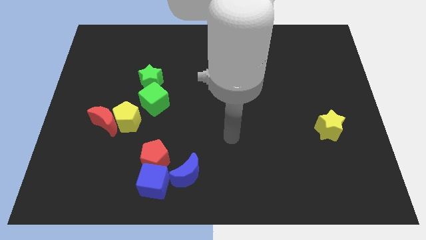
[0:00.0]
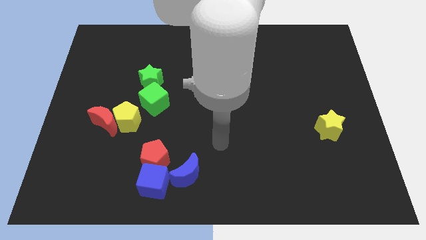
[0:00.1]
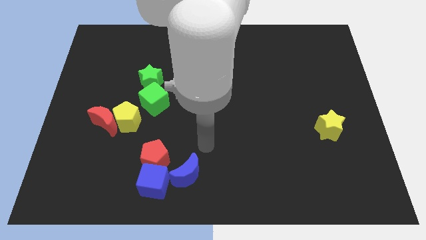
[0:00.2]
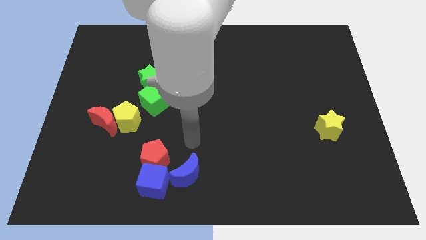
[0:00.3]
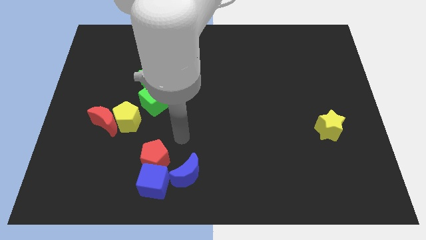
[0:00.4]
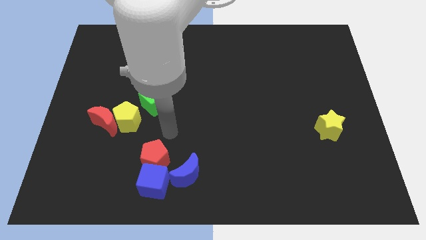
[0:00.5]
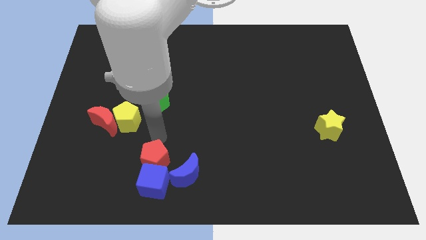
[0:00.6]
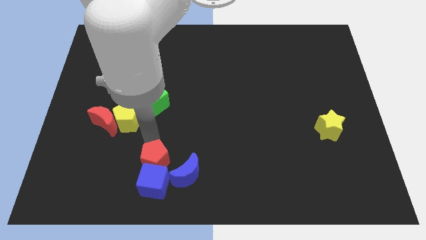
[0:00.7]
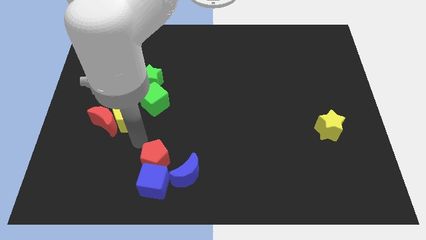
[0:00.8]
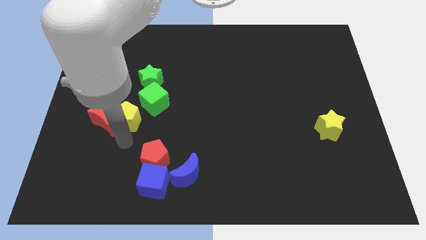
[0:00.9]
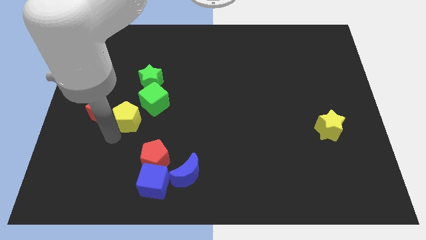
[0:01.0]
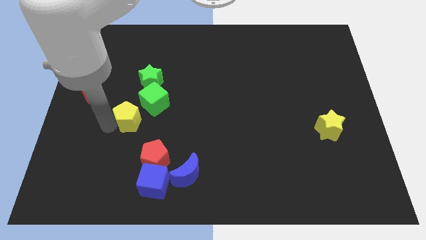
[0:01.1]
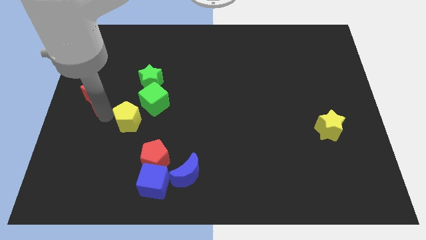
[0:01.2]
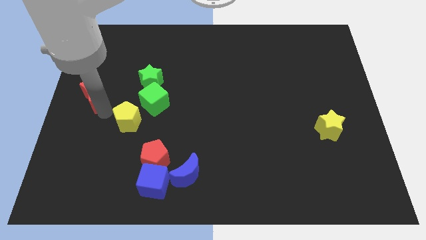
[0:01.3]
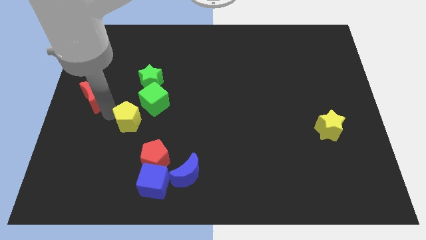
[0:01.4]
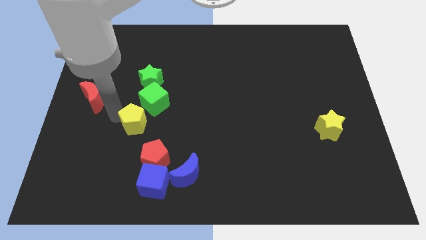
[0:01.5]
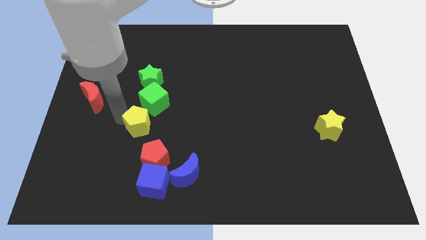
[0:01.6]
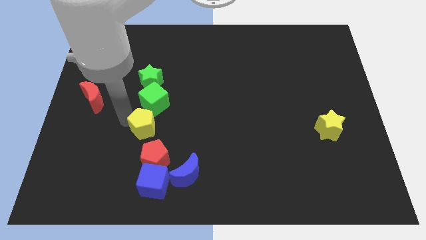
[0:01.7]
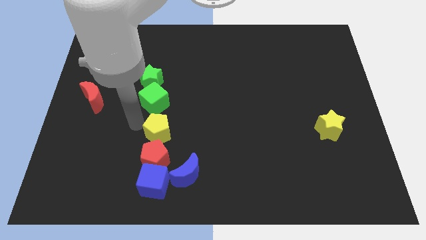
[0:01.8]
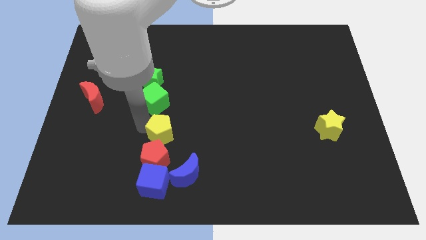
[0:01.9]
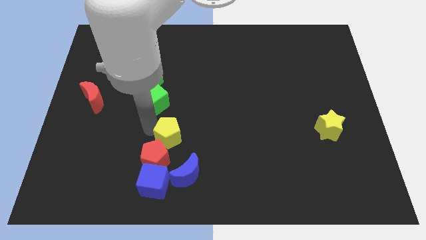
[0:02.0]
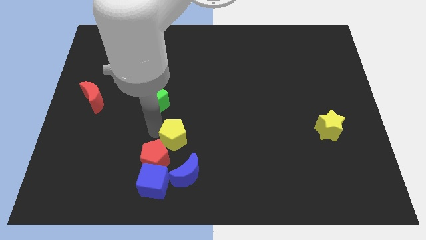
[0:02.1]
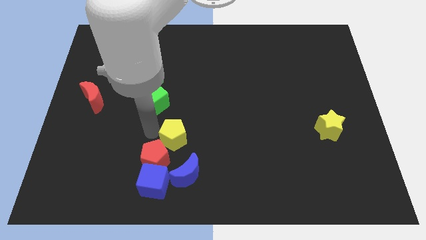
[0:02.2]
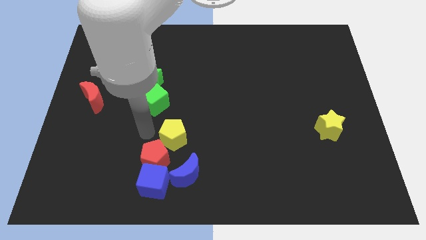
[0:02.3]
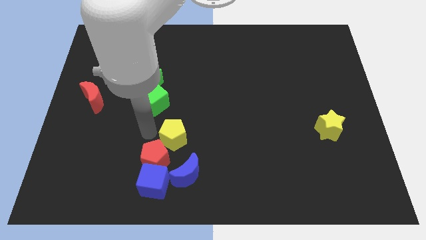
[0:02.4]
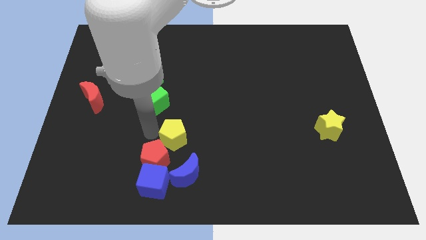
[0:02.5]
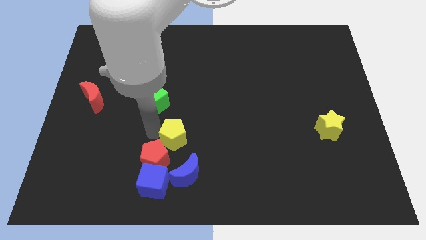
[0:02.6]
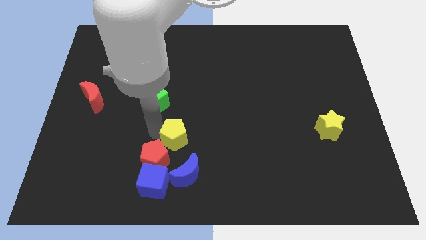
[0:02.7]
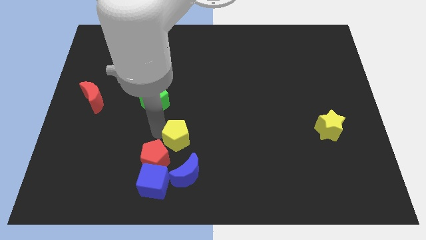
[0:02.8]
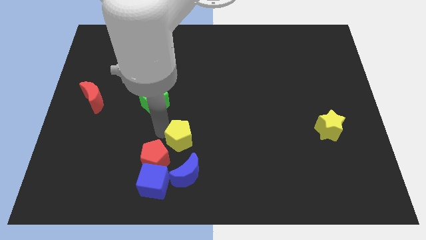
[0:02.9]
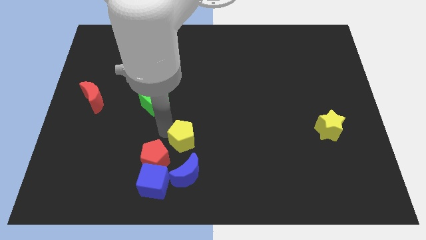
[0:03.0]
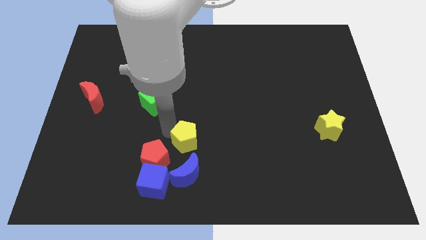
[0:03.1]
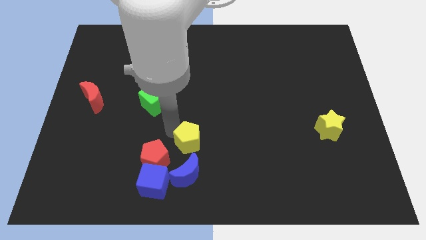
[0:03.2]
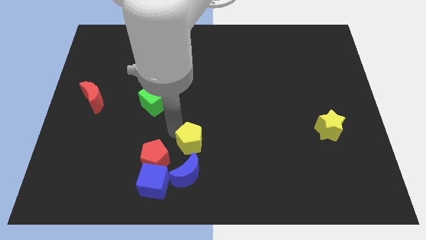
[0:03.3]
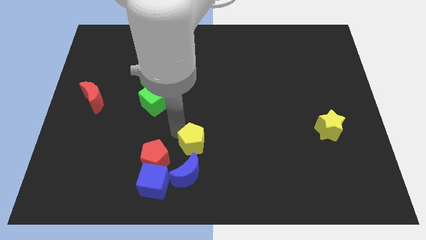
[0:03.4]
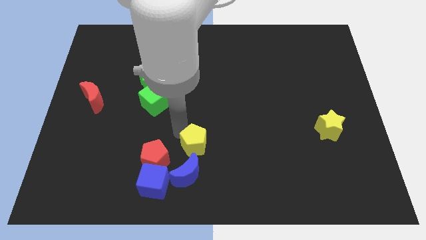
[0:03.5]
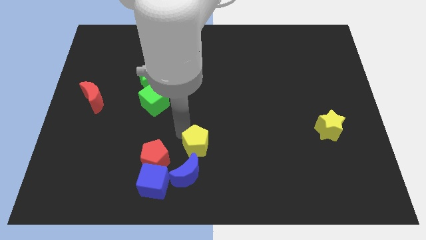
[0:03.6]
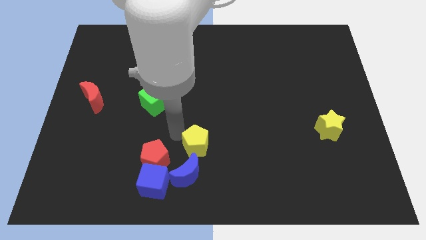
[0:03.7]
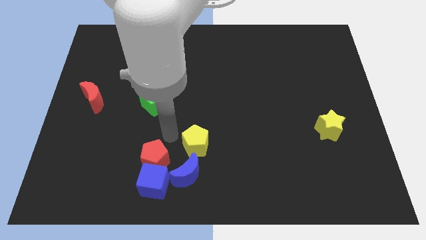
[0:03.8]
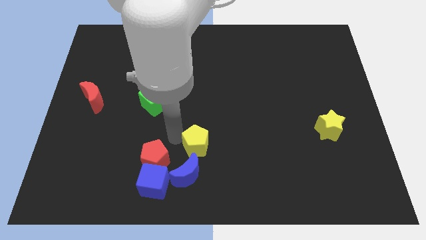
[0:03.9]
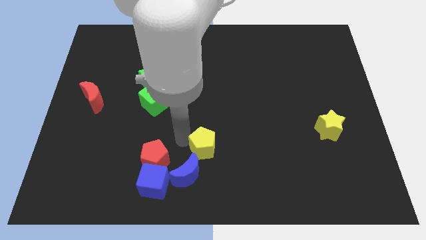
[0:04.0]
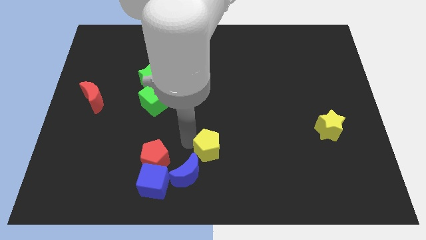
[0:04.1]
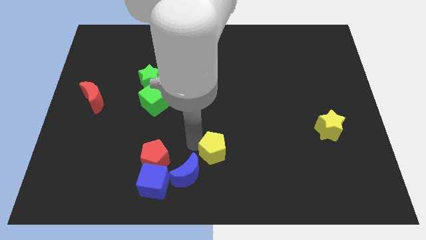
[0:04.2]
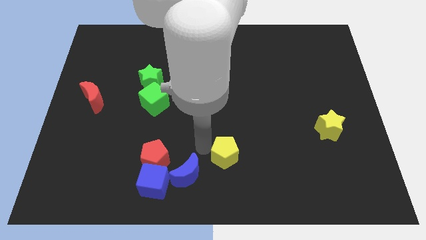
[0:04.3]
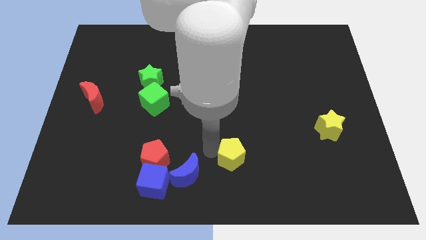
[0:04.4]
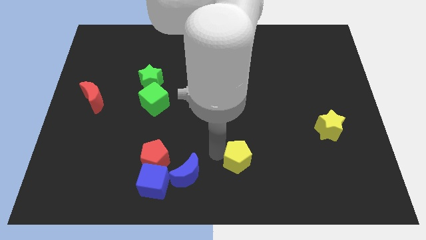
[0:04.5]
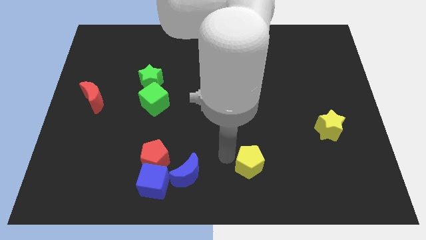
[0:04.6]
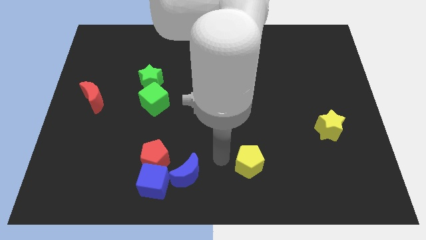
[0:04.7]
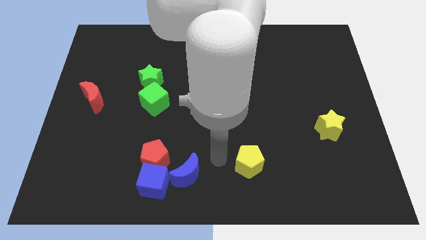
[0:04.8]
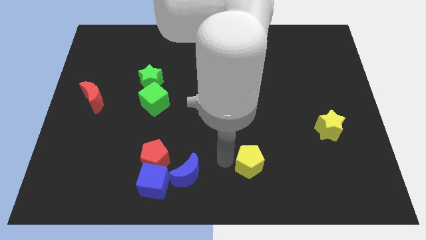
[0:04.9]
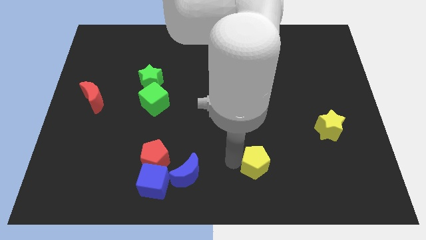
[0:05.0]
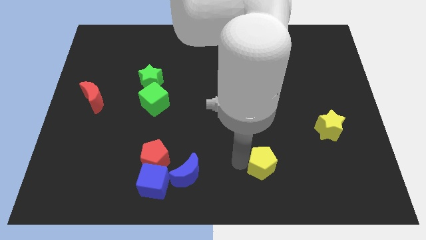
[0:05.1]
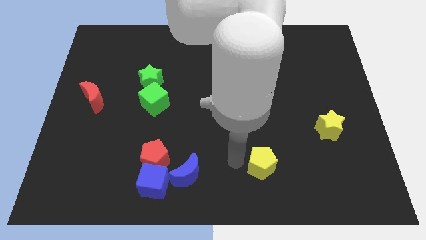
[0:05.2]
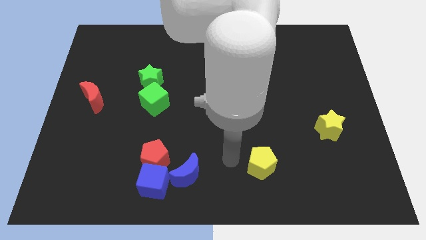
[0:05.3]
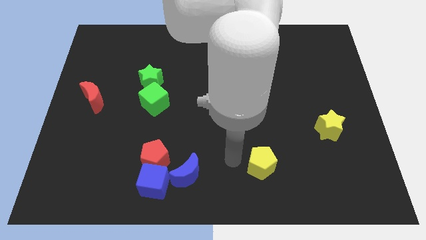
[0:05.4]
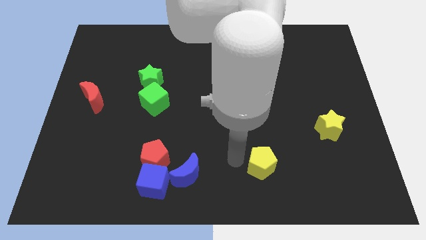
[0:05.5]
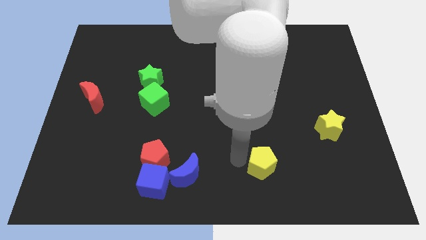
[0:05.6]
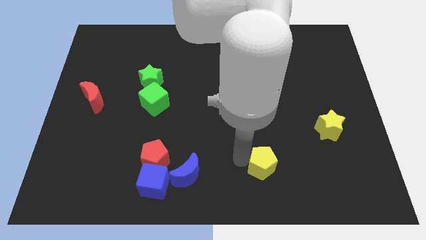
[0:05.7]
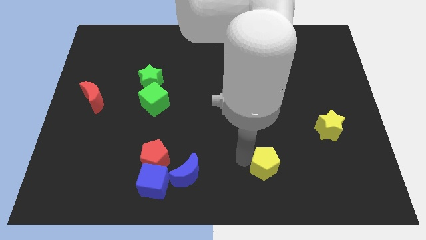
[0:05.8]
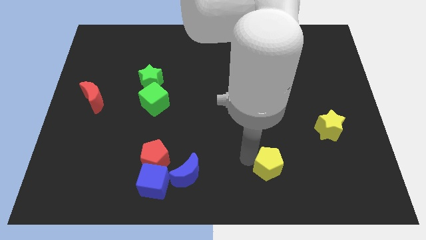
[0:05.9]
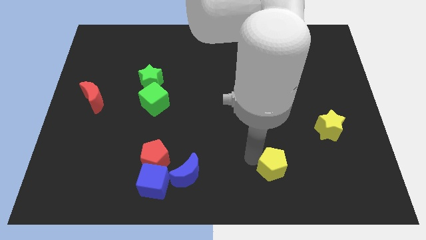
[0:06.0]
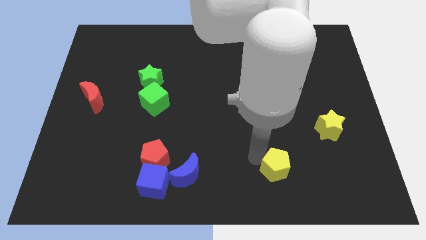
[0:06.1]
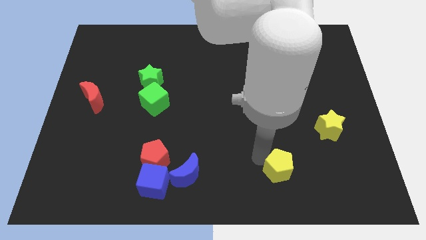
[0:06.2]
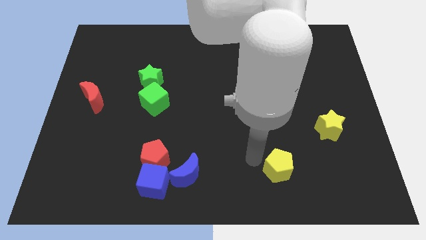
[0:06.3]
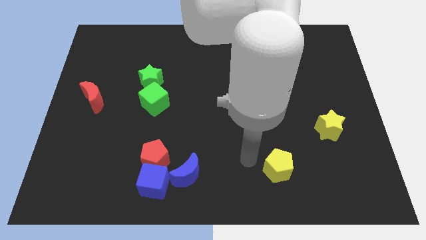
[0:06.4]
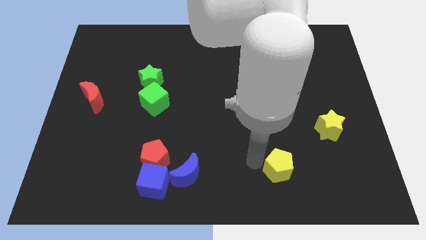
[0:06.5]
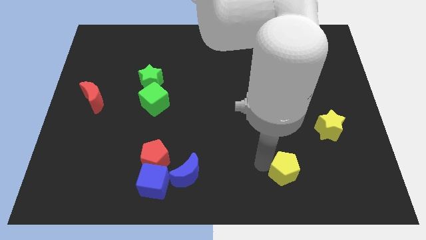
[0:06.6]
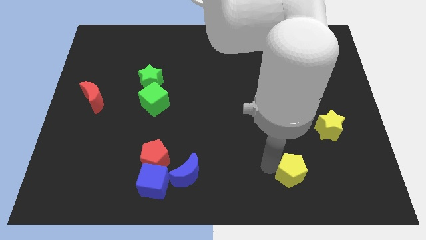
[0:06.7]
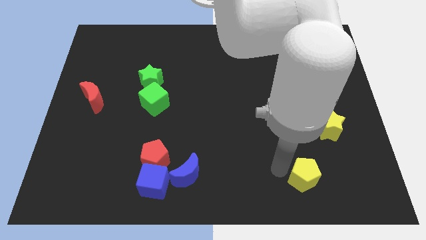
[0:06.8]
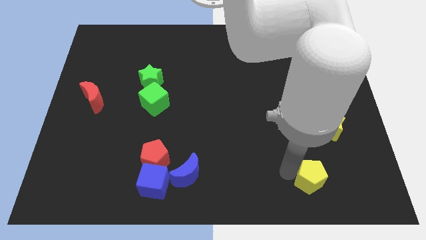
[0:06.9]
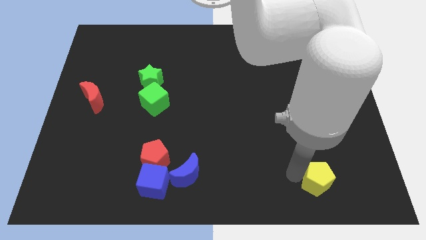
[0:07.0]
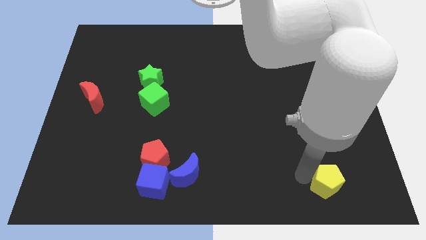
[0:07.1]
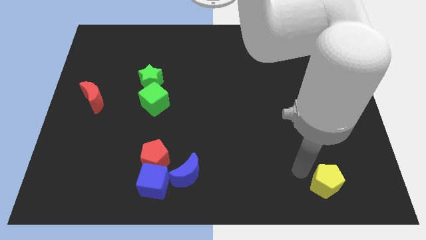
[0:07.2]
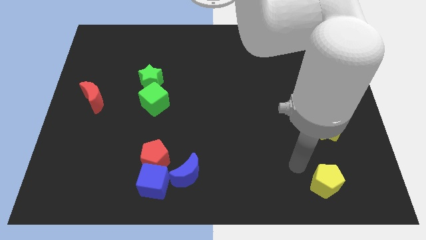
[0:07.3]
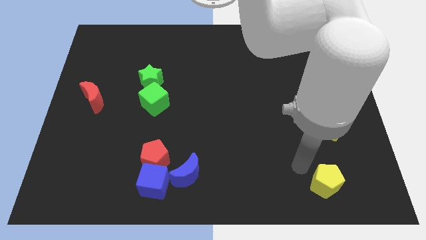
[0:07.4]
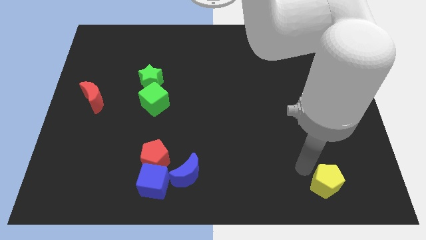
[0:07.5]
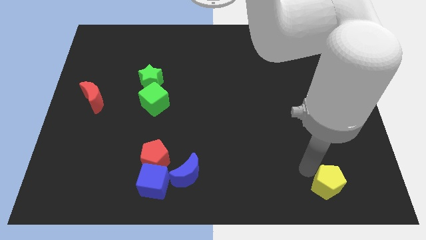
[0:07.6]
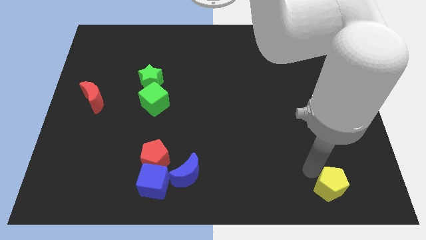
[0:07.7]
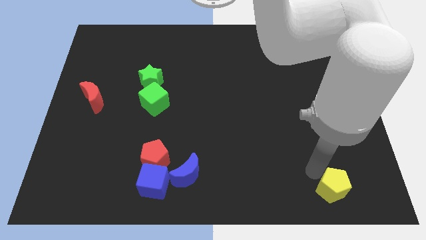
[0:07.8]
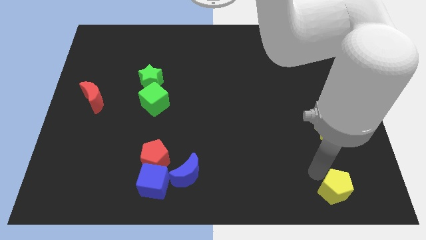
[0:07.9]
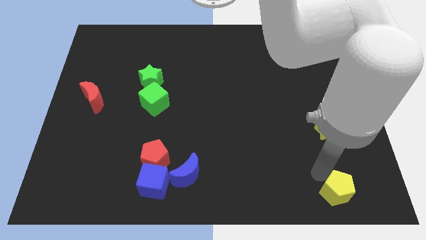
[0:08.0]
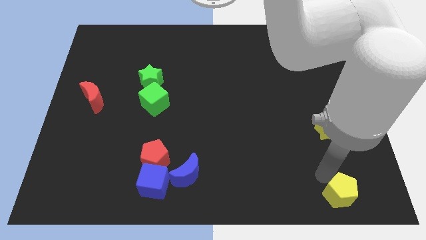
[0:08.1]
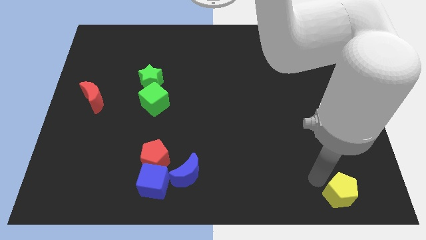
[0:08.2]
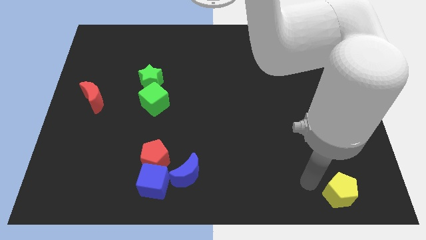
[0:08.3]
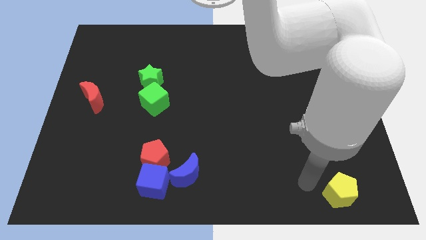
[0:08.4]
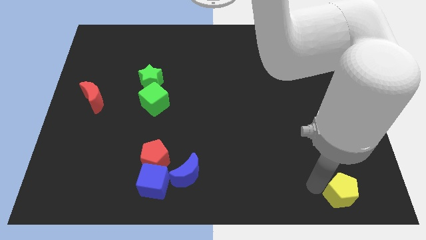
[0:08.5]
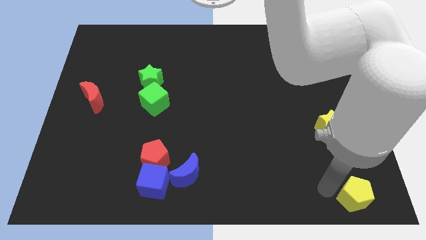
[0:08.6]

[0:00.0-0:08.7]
slide the yellow pentagon to the bottom right corner
